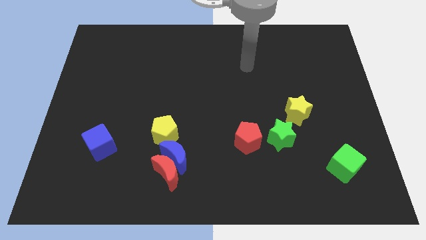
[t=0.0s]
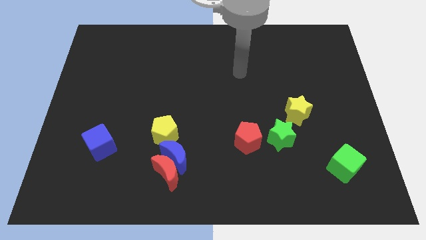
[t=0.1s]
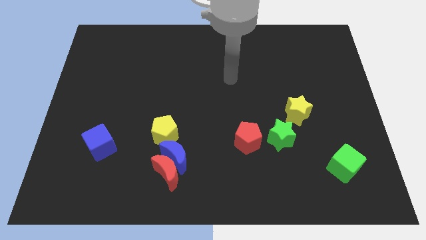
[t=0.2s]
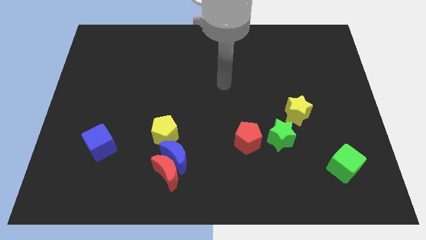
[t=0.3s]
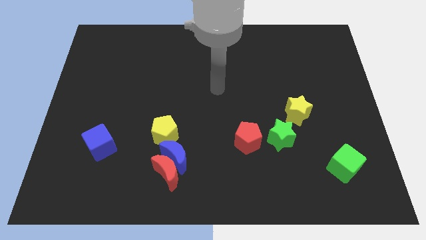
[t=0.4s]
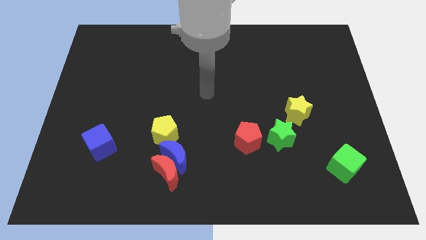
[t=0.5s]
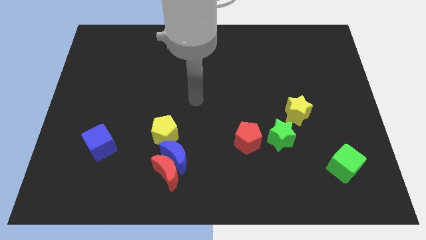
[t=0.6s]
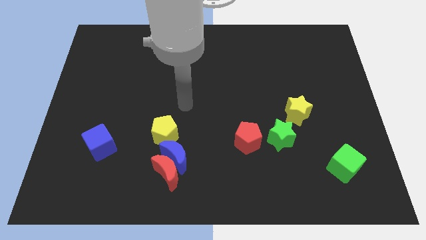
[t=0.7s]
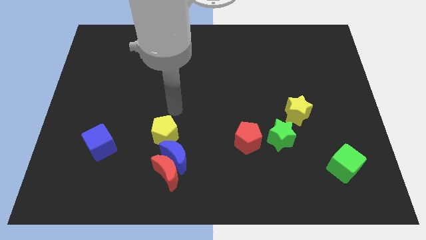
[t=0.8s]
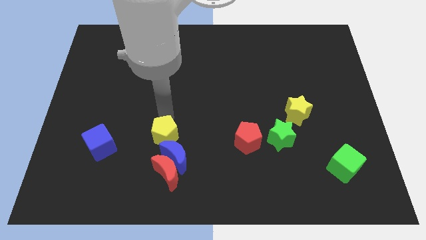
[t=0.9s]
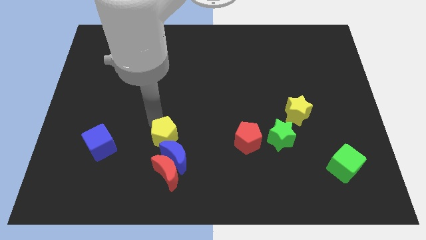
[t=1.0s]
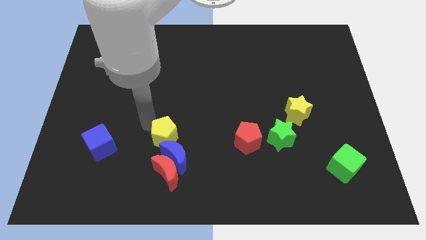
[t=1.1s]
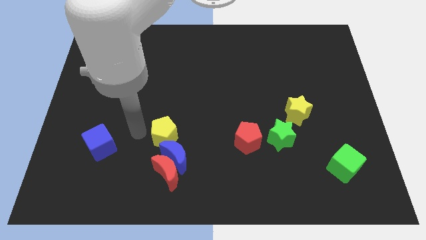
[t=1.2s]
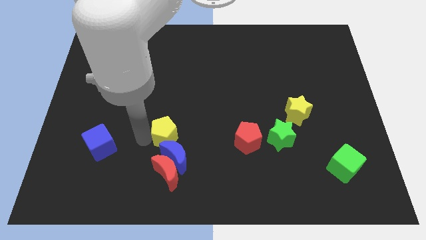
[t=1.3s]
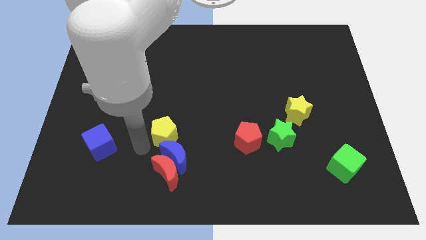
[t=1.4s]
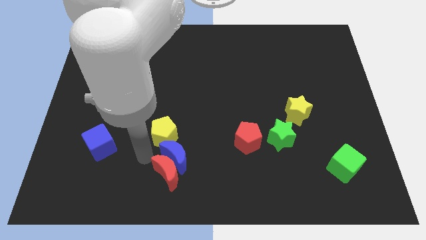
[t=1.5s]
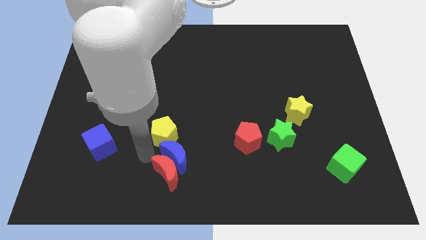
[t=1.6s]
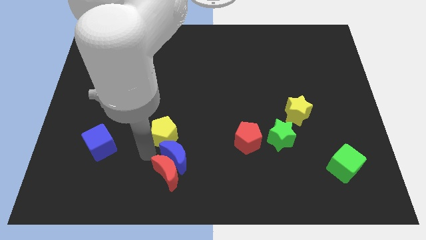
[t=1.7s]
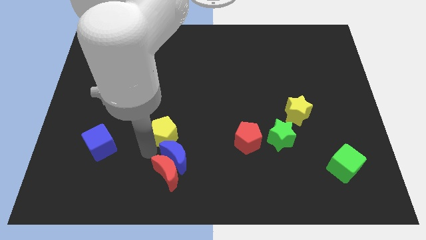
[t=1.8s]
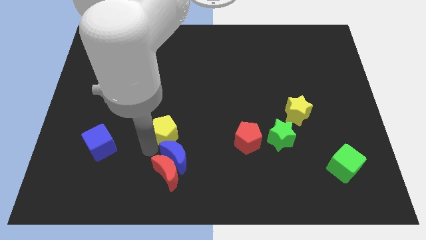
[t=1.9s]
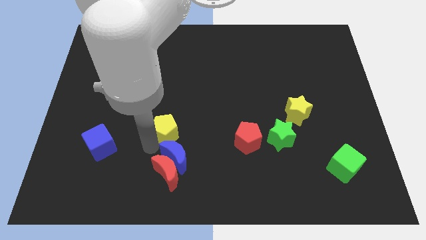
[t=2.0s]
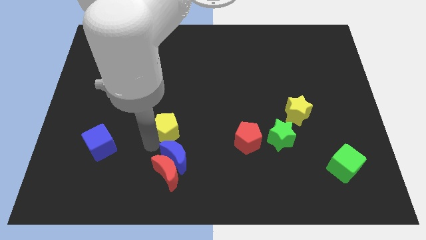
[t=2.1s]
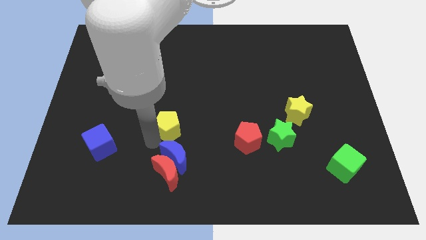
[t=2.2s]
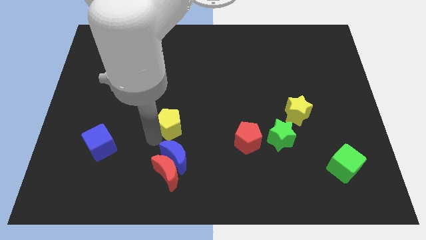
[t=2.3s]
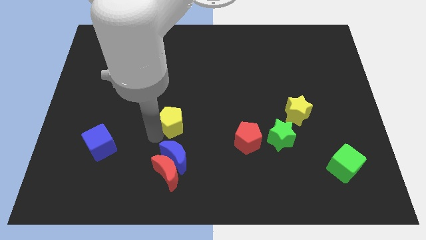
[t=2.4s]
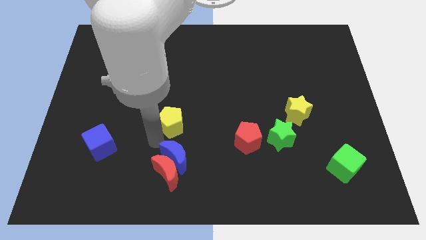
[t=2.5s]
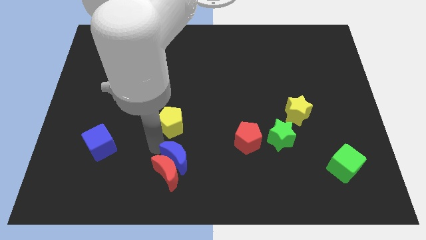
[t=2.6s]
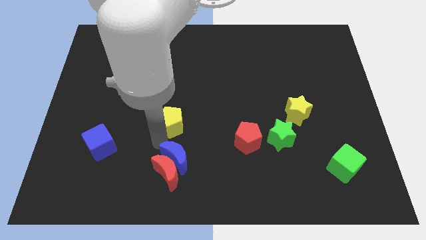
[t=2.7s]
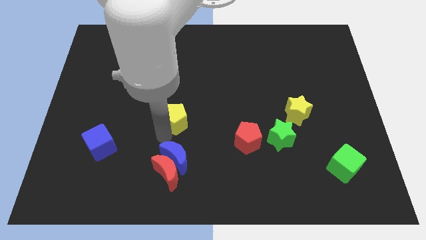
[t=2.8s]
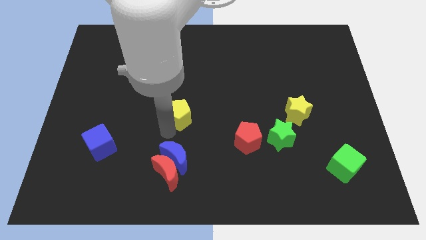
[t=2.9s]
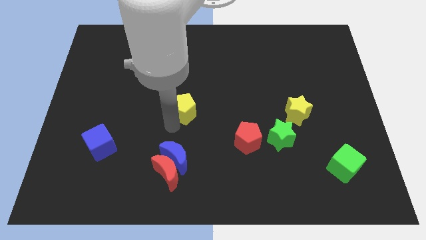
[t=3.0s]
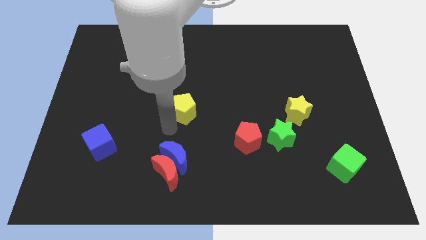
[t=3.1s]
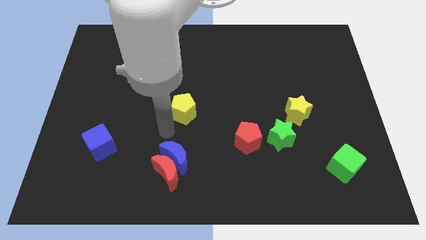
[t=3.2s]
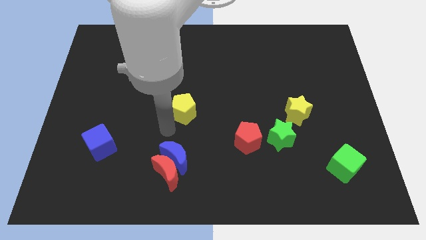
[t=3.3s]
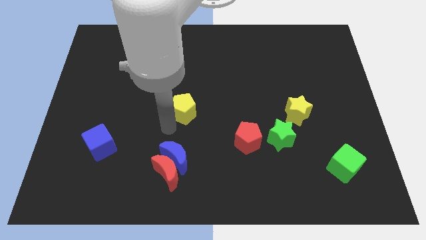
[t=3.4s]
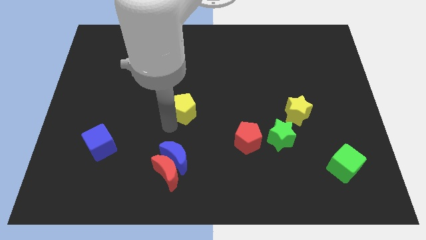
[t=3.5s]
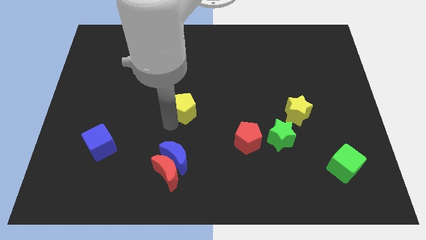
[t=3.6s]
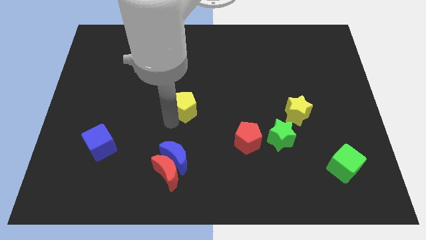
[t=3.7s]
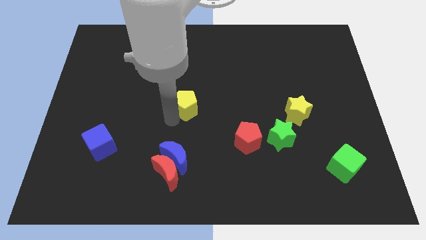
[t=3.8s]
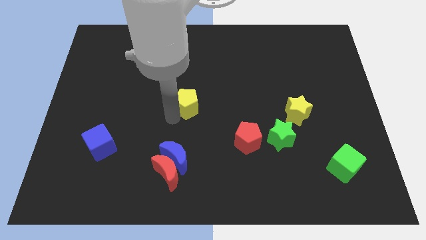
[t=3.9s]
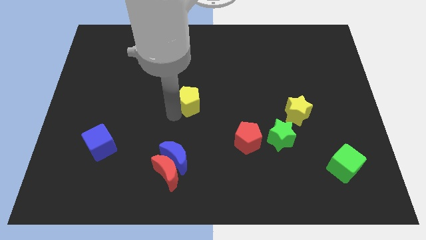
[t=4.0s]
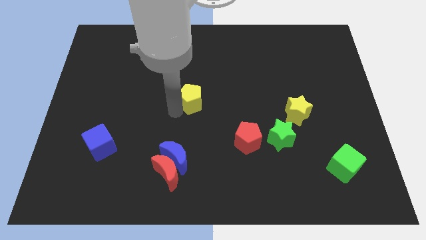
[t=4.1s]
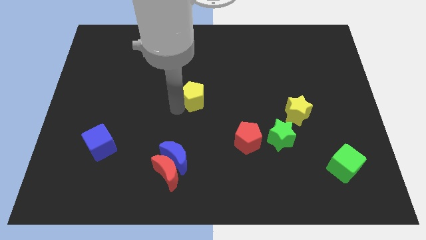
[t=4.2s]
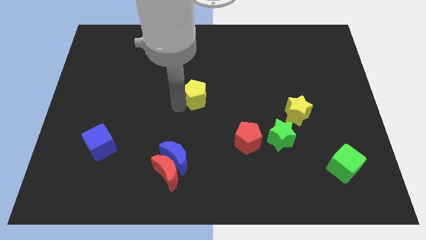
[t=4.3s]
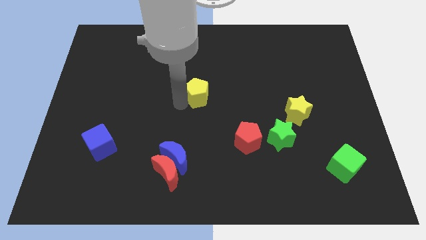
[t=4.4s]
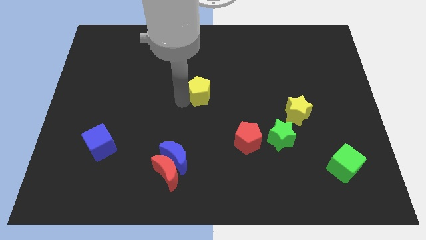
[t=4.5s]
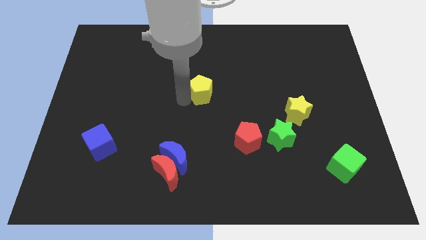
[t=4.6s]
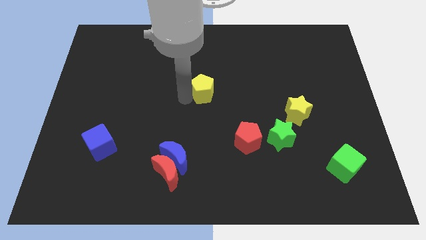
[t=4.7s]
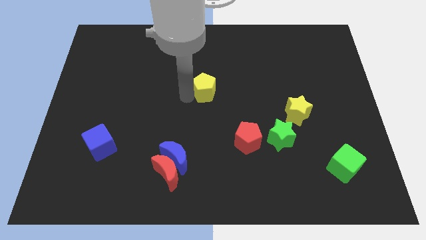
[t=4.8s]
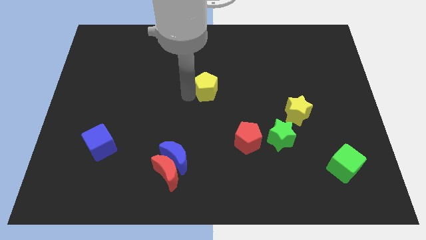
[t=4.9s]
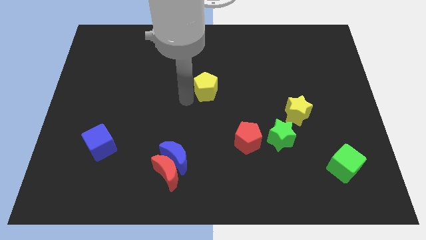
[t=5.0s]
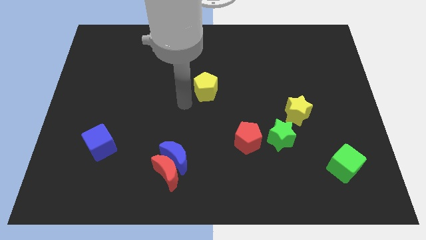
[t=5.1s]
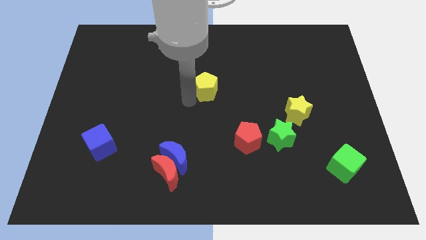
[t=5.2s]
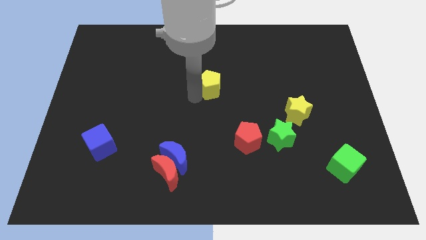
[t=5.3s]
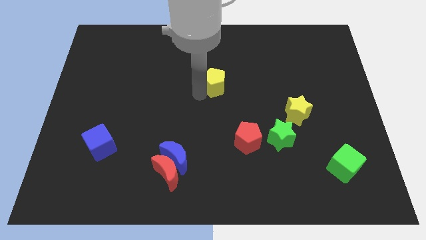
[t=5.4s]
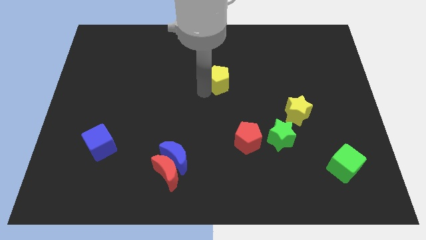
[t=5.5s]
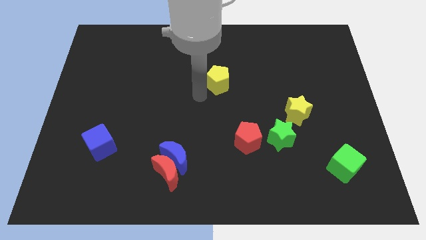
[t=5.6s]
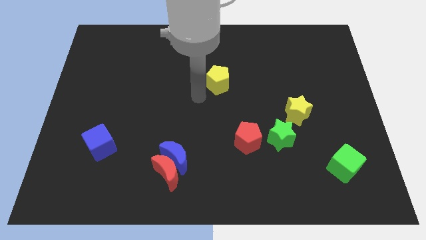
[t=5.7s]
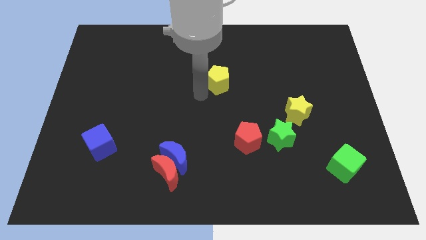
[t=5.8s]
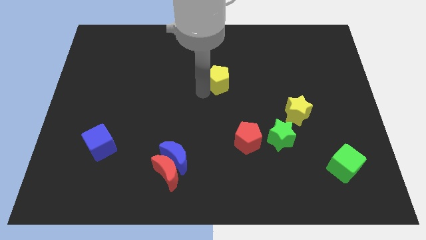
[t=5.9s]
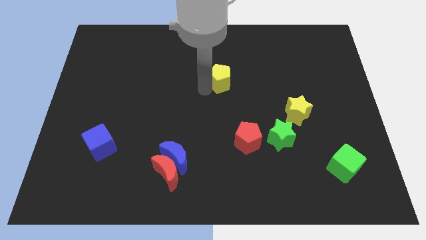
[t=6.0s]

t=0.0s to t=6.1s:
slide the yellow pentagon upwards and to the right diagonally

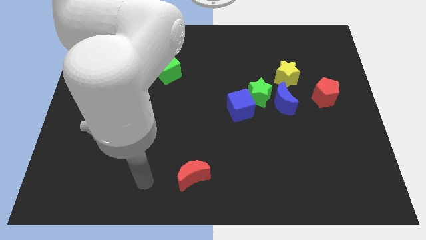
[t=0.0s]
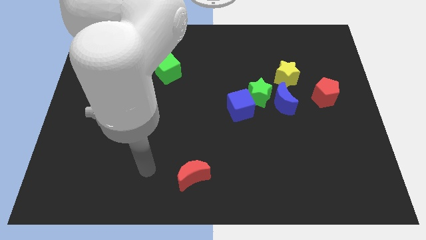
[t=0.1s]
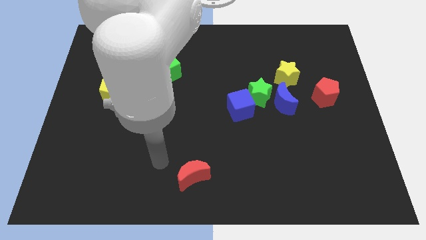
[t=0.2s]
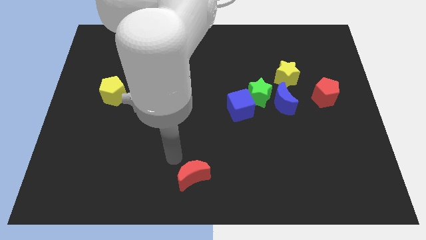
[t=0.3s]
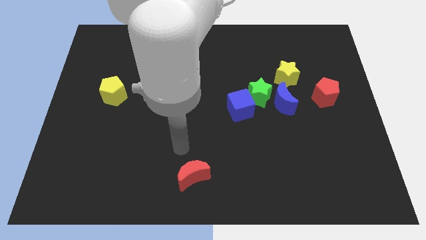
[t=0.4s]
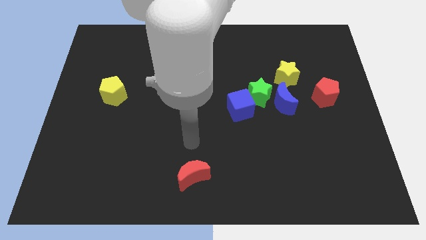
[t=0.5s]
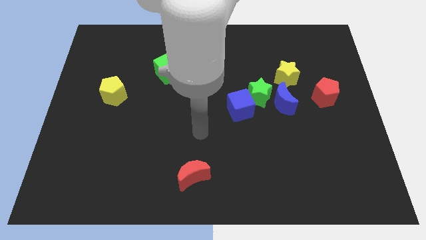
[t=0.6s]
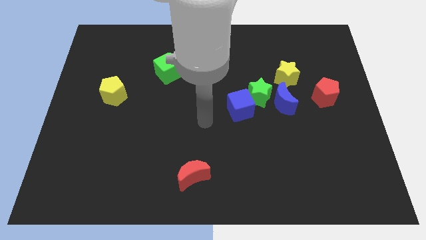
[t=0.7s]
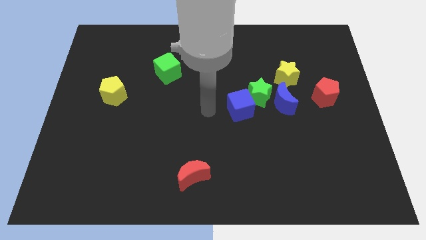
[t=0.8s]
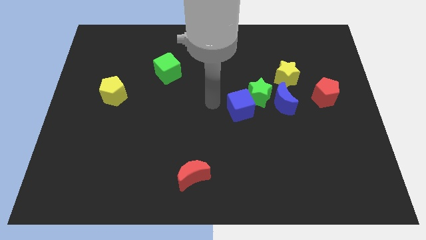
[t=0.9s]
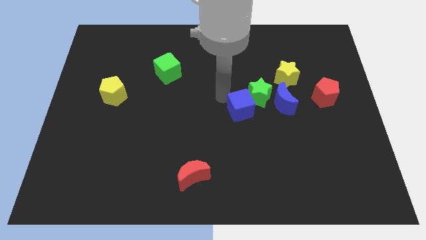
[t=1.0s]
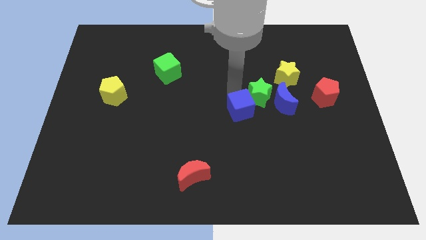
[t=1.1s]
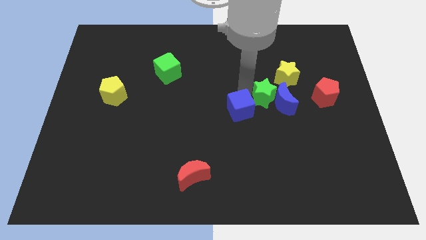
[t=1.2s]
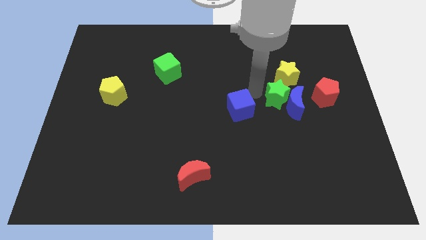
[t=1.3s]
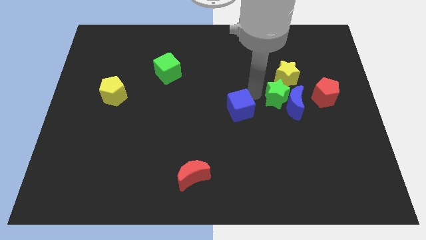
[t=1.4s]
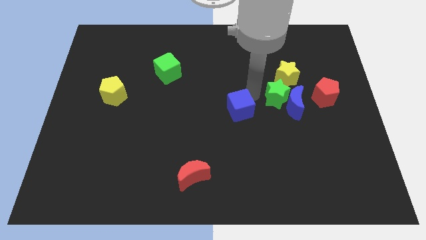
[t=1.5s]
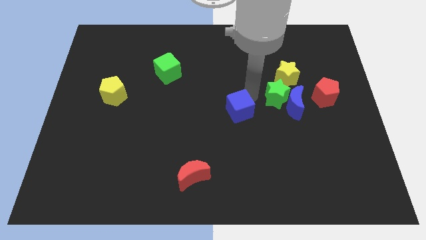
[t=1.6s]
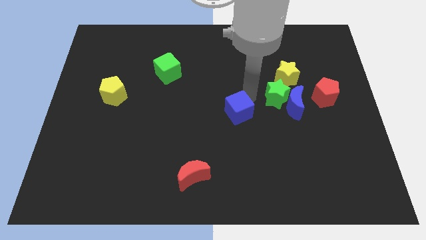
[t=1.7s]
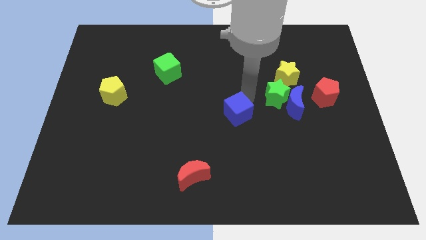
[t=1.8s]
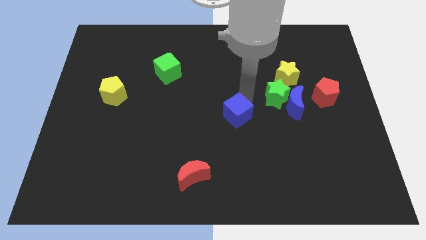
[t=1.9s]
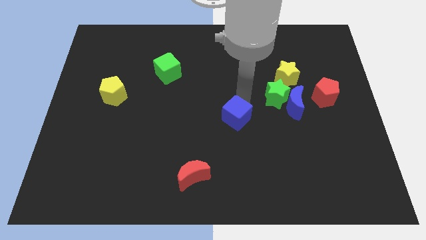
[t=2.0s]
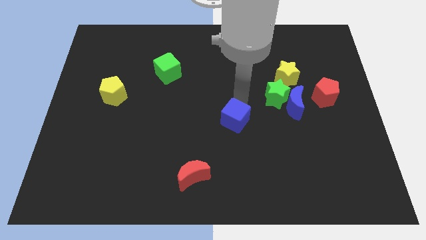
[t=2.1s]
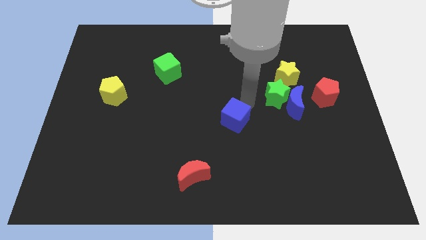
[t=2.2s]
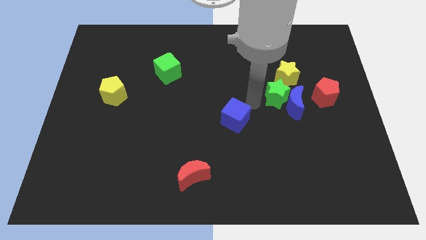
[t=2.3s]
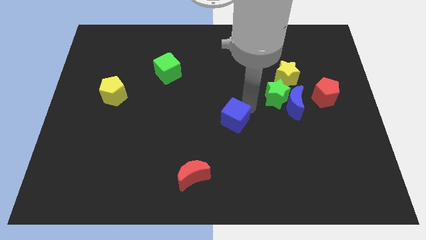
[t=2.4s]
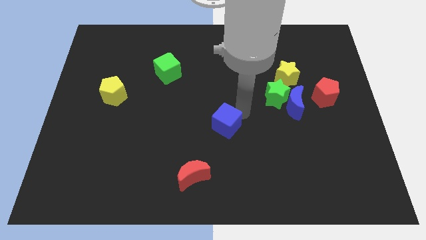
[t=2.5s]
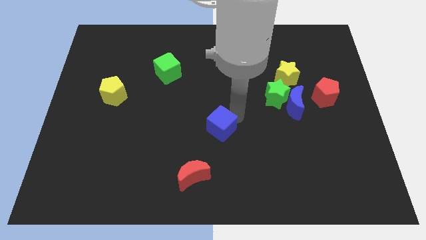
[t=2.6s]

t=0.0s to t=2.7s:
slightly move the blue cube down and left
